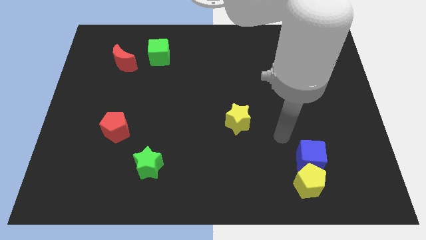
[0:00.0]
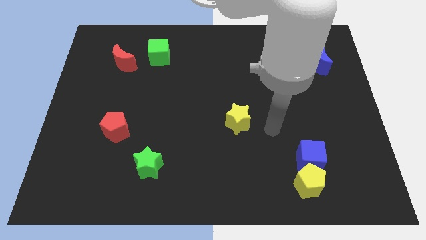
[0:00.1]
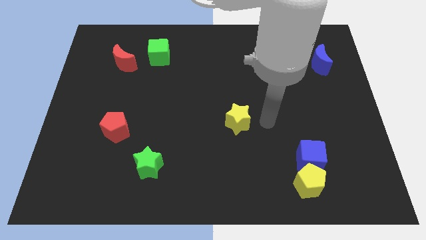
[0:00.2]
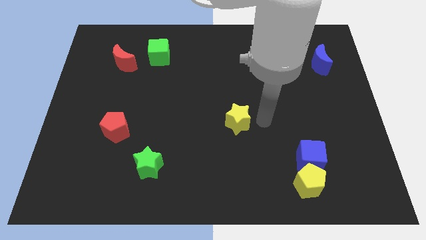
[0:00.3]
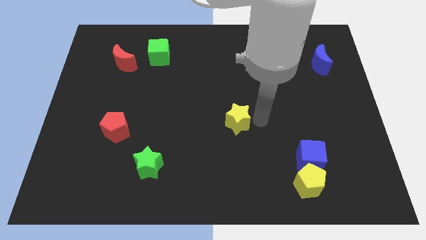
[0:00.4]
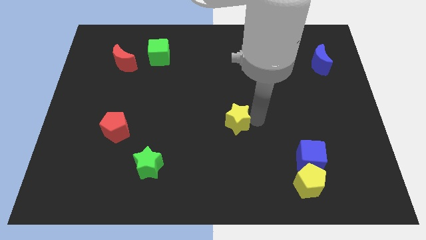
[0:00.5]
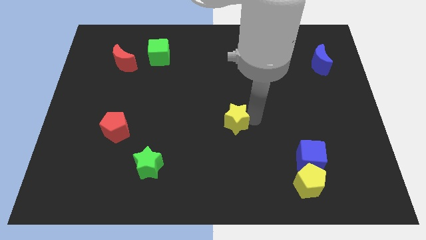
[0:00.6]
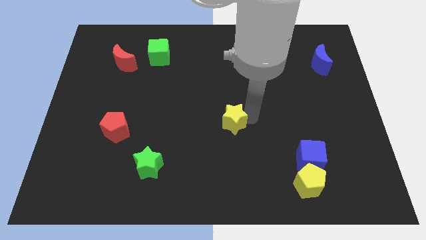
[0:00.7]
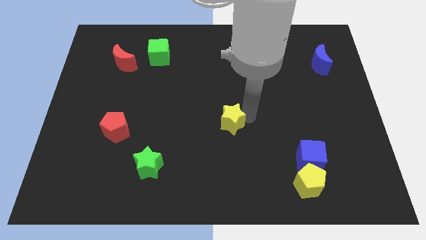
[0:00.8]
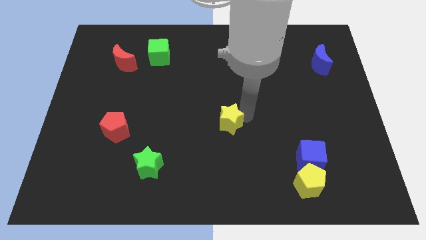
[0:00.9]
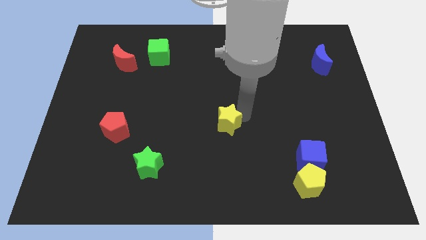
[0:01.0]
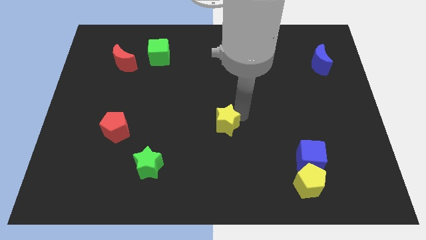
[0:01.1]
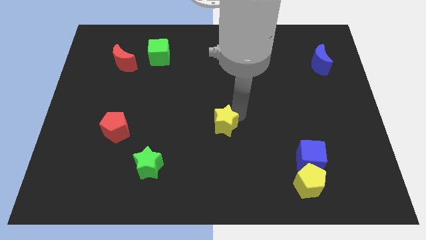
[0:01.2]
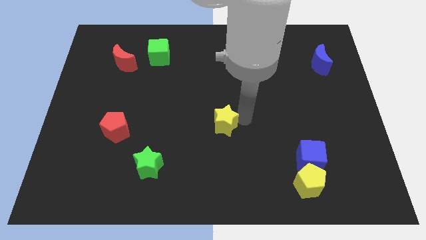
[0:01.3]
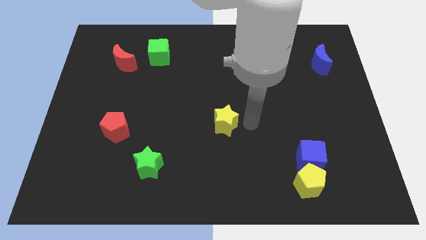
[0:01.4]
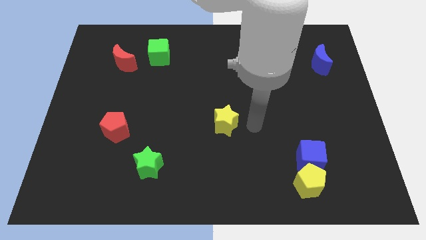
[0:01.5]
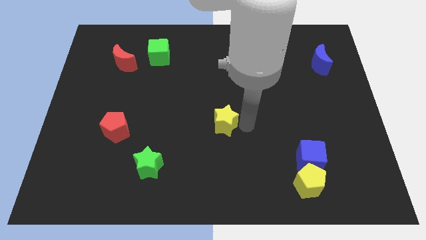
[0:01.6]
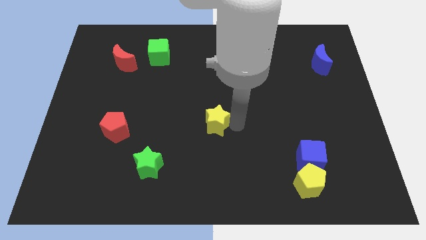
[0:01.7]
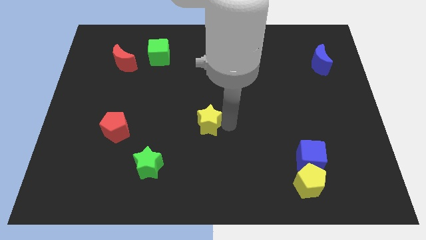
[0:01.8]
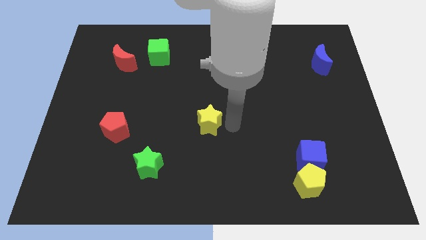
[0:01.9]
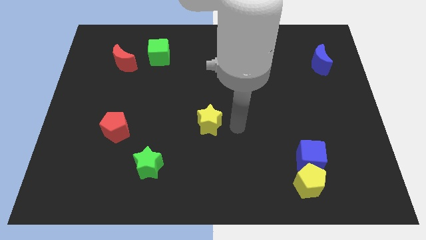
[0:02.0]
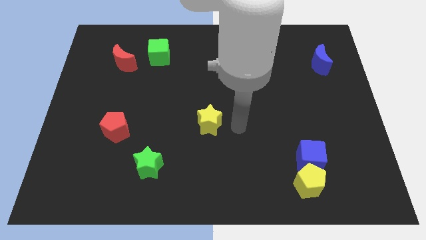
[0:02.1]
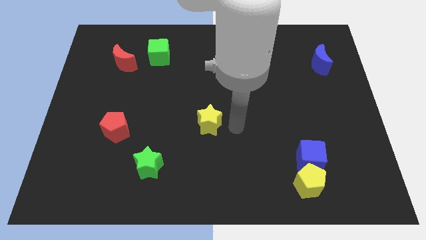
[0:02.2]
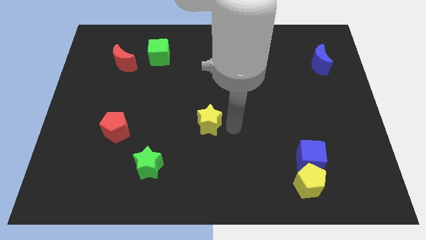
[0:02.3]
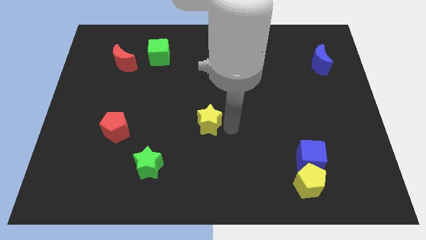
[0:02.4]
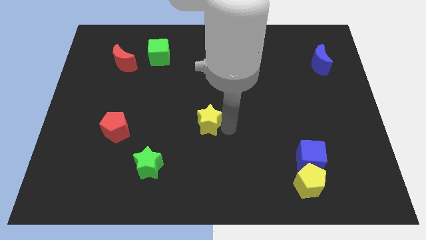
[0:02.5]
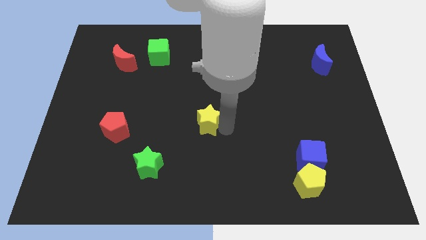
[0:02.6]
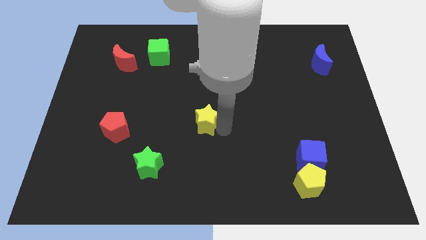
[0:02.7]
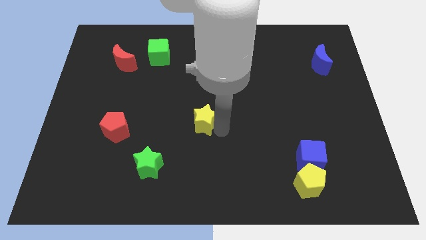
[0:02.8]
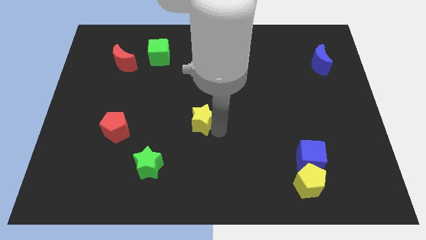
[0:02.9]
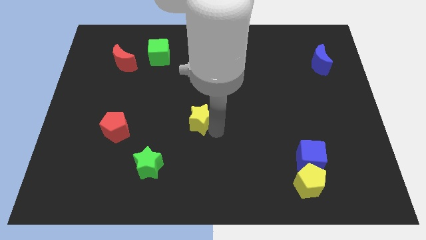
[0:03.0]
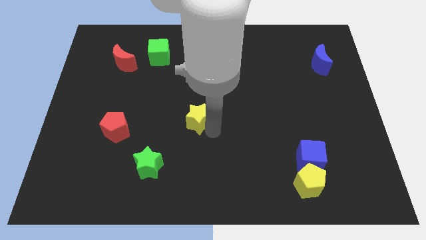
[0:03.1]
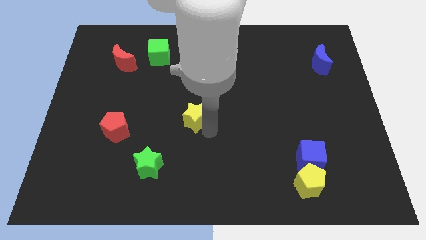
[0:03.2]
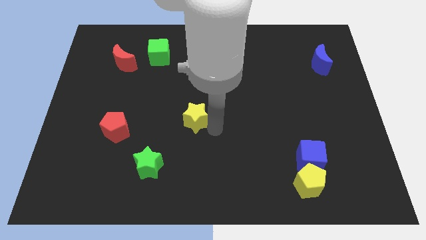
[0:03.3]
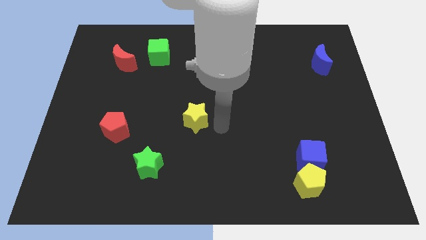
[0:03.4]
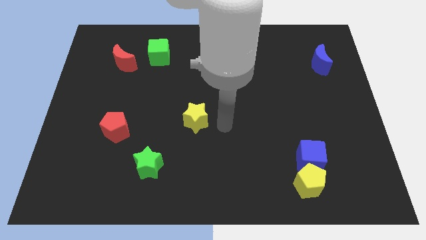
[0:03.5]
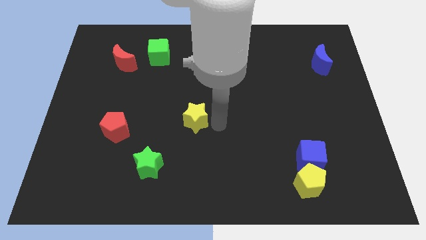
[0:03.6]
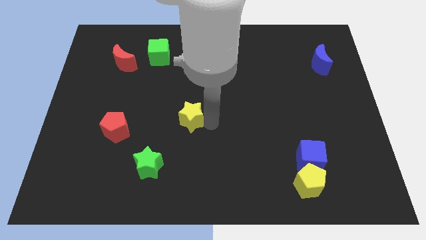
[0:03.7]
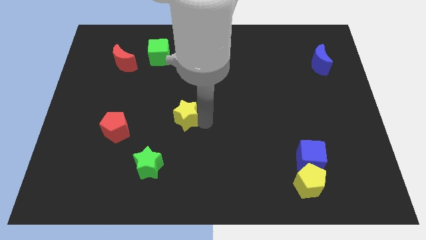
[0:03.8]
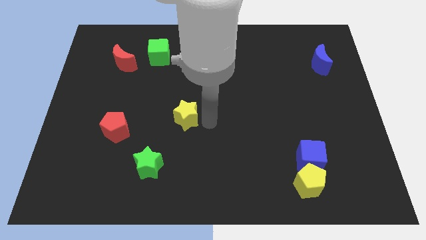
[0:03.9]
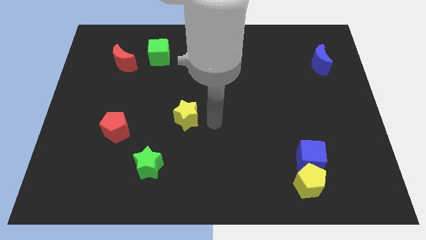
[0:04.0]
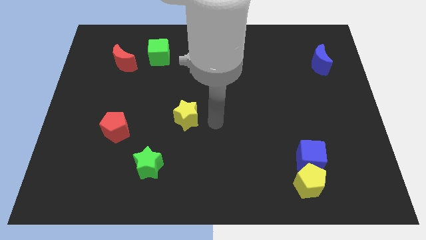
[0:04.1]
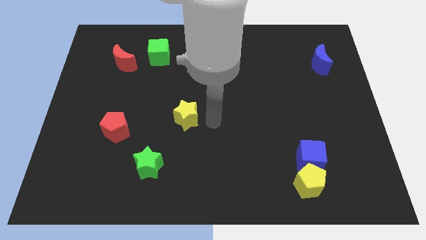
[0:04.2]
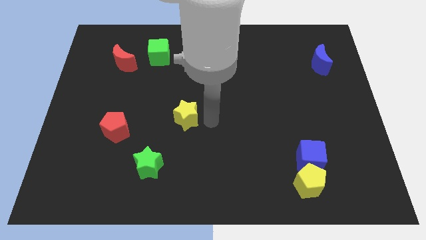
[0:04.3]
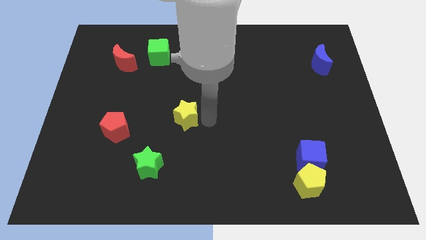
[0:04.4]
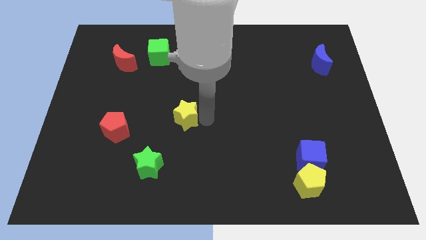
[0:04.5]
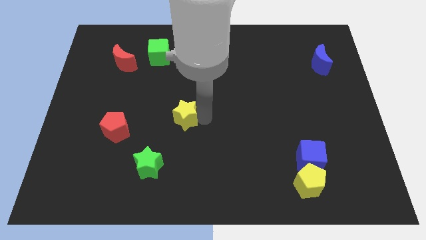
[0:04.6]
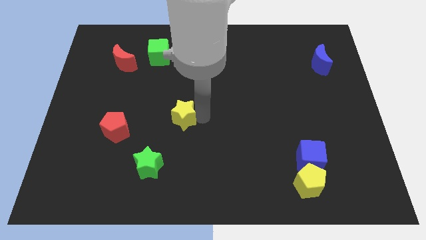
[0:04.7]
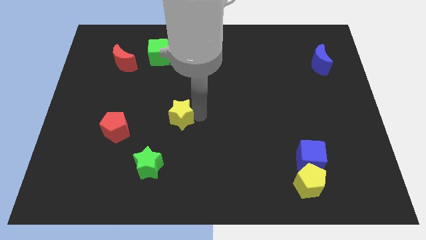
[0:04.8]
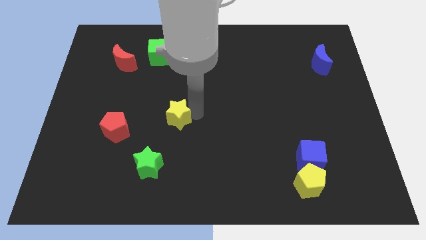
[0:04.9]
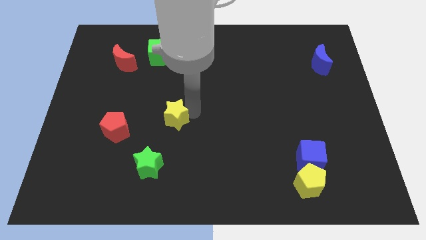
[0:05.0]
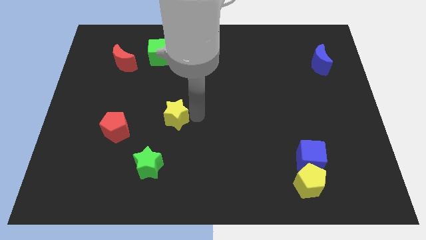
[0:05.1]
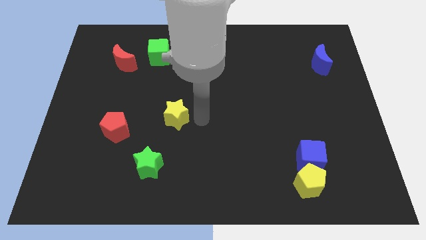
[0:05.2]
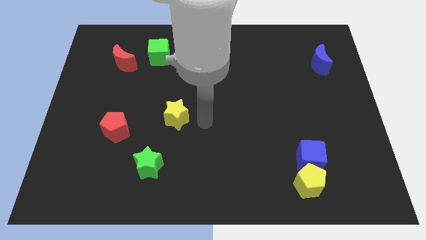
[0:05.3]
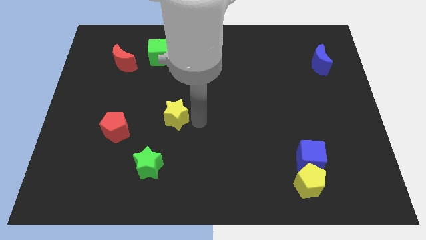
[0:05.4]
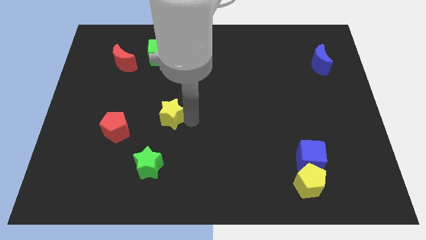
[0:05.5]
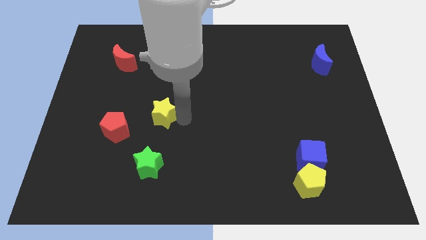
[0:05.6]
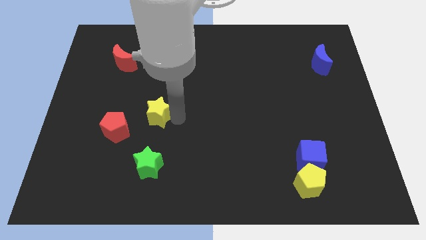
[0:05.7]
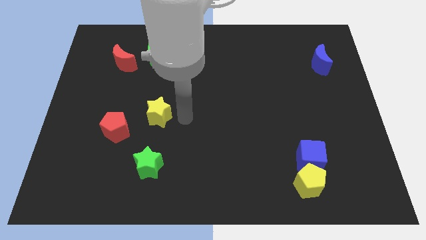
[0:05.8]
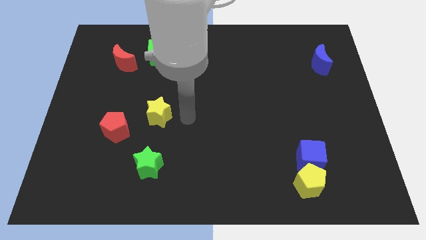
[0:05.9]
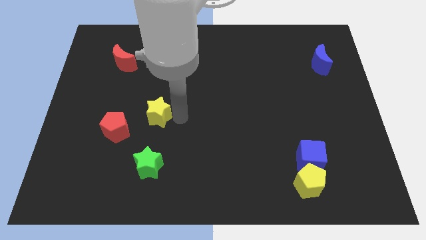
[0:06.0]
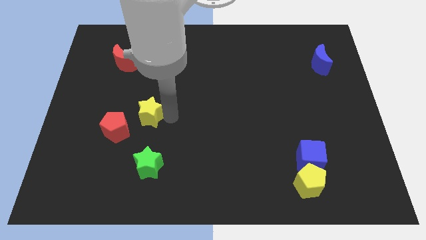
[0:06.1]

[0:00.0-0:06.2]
push the yellow star to the left

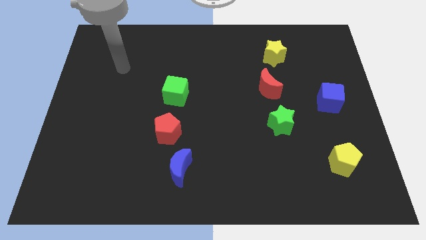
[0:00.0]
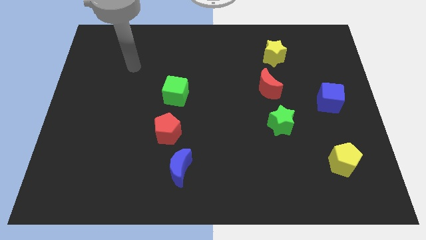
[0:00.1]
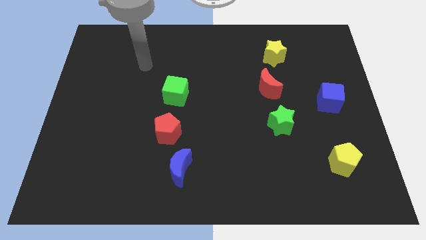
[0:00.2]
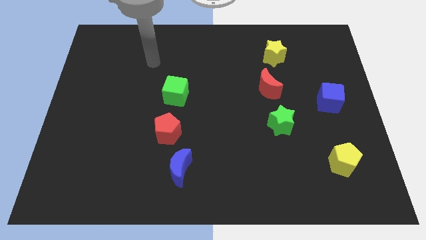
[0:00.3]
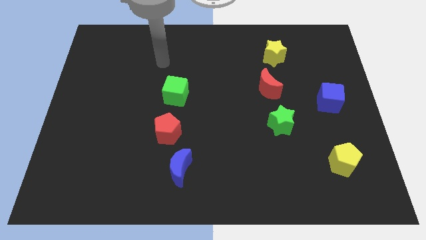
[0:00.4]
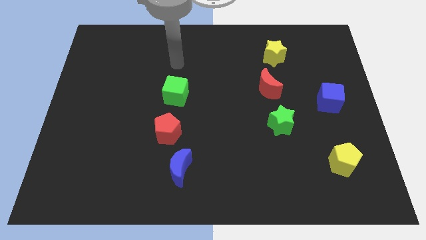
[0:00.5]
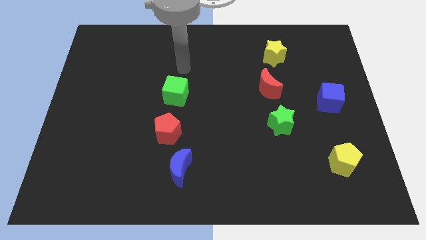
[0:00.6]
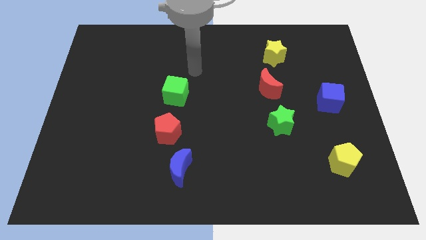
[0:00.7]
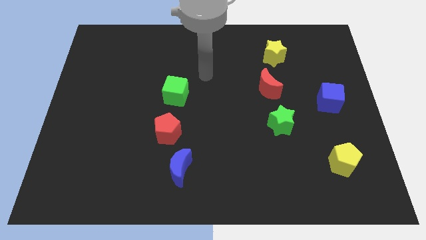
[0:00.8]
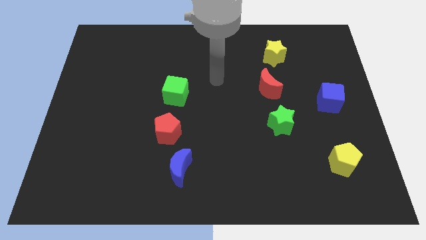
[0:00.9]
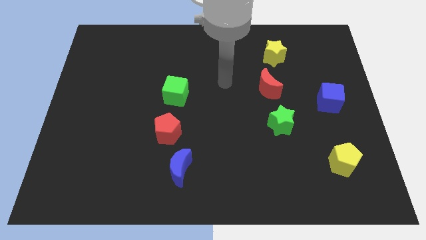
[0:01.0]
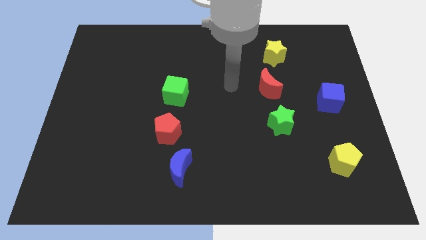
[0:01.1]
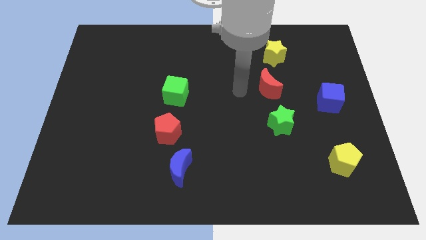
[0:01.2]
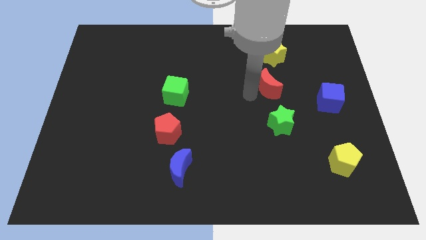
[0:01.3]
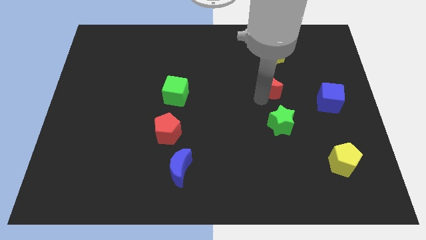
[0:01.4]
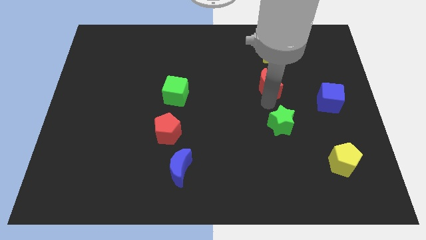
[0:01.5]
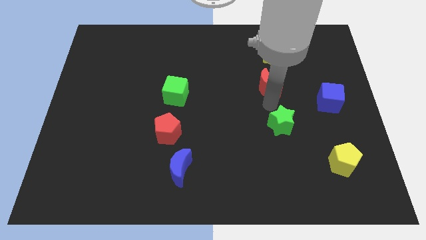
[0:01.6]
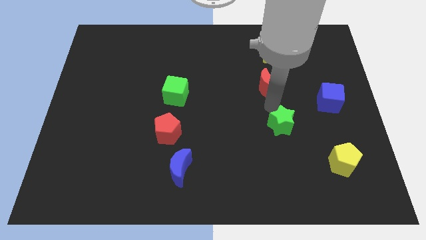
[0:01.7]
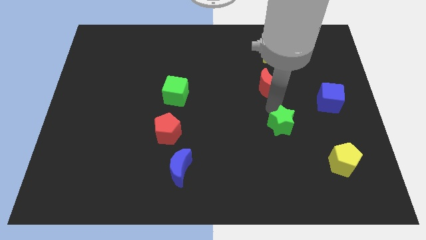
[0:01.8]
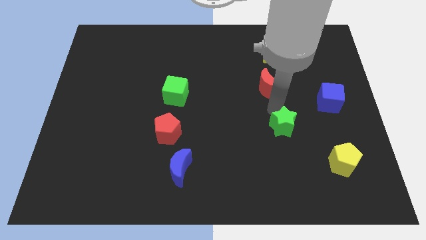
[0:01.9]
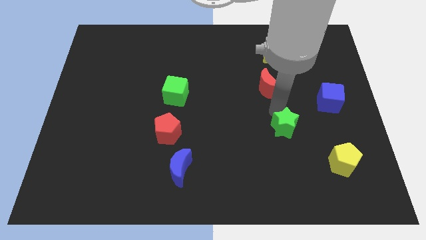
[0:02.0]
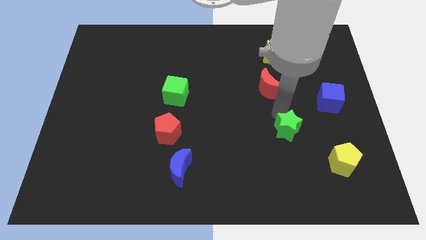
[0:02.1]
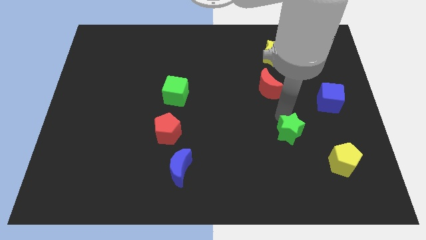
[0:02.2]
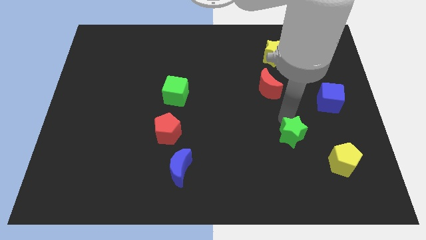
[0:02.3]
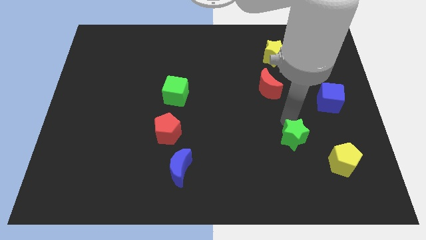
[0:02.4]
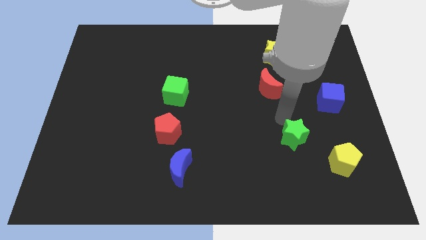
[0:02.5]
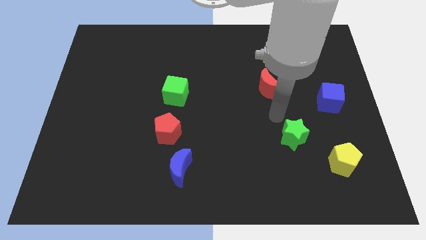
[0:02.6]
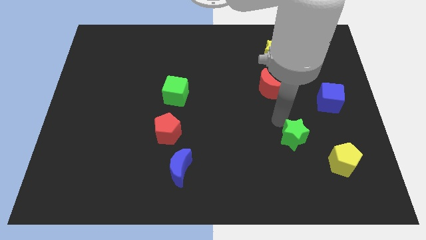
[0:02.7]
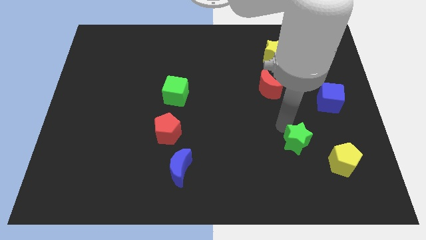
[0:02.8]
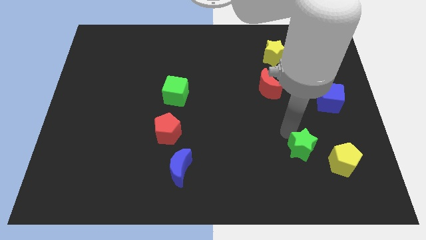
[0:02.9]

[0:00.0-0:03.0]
slightly push the green star down and to the right diagonally
